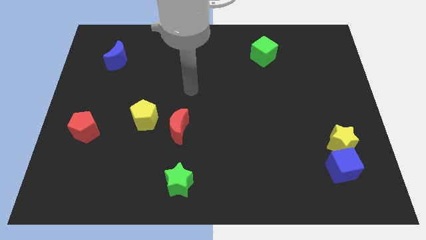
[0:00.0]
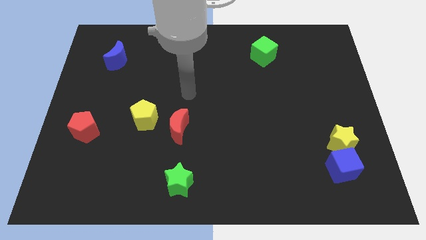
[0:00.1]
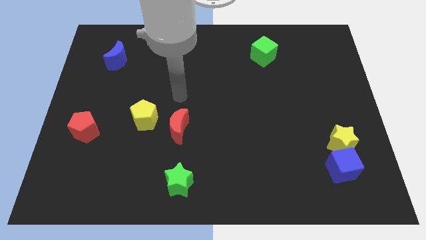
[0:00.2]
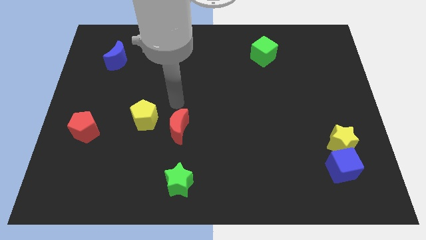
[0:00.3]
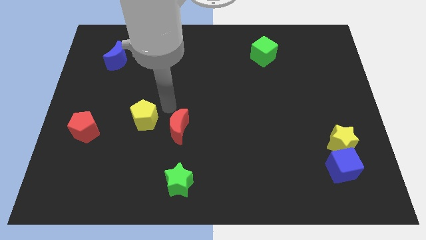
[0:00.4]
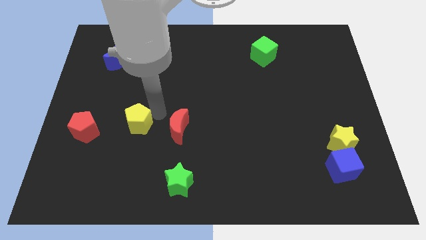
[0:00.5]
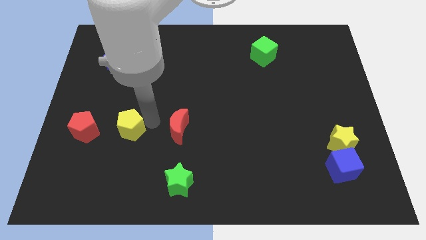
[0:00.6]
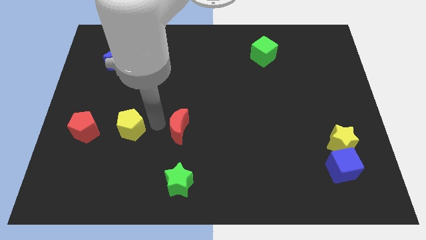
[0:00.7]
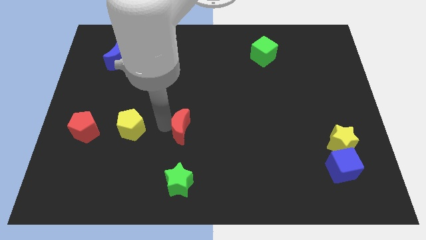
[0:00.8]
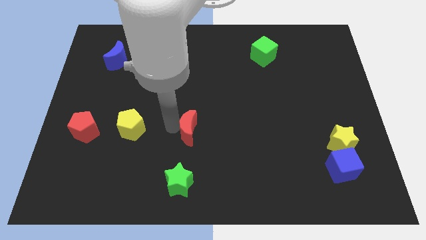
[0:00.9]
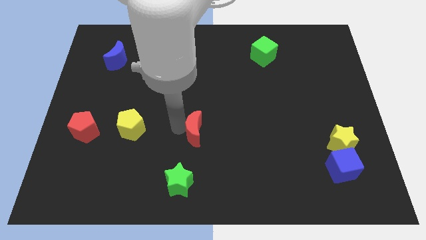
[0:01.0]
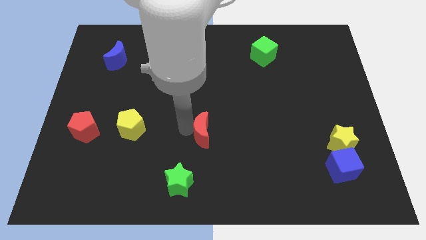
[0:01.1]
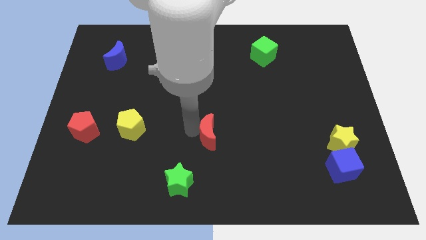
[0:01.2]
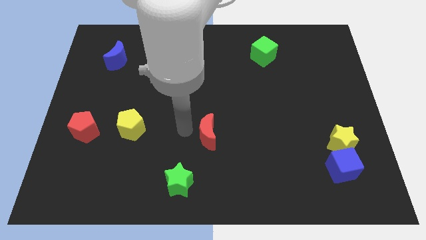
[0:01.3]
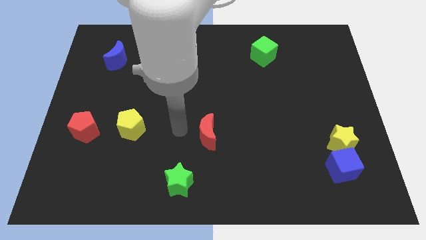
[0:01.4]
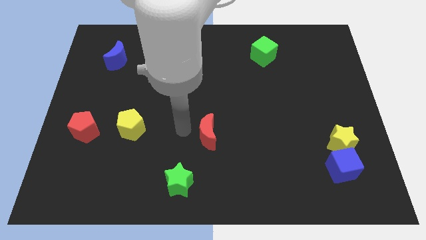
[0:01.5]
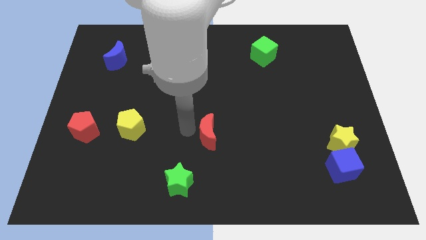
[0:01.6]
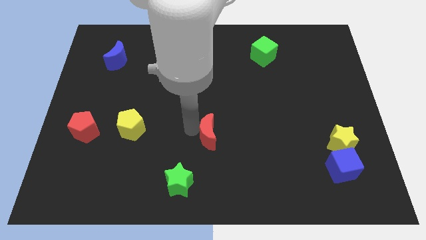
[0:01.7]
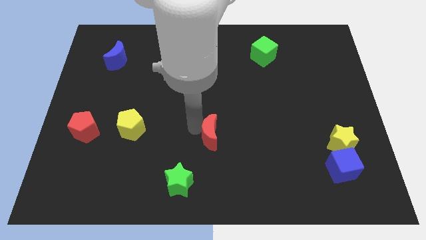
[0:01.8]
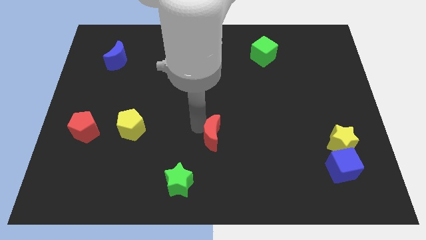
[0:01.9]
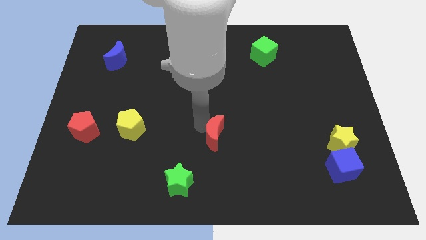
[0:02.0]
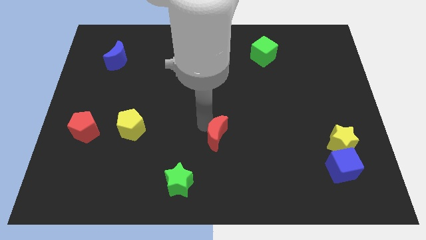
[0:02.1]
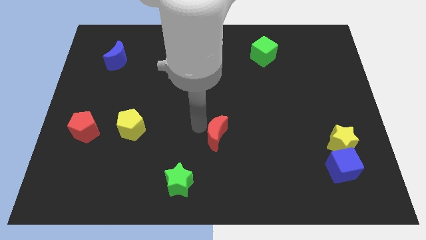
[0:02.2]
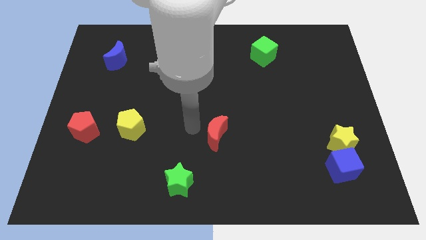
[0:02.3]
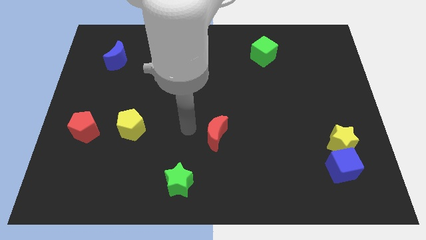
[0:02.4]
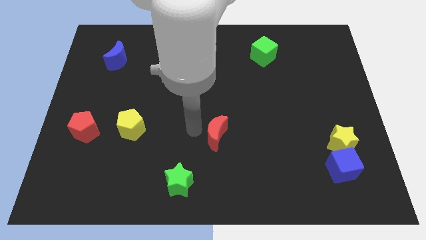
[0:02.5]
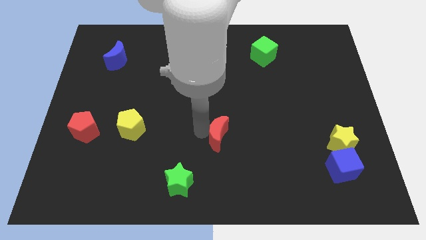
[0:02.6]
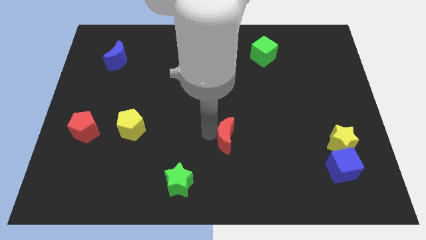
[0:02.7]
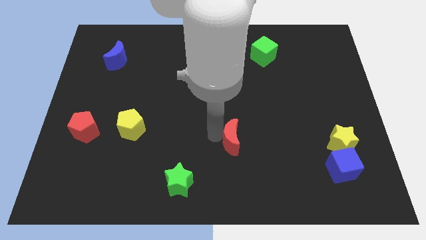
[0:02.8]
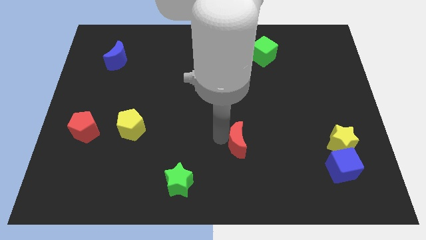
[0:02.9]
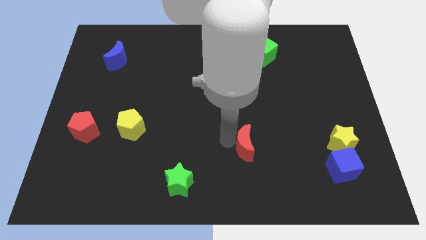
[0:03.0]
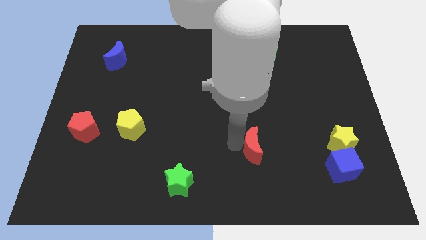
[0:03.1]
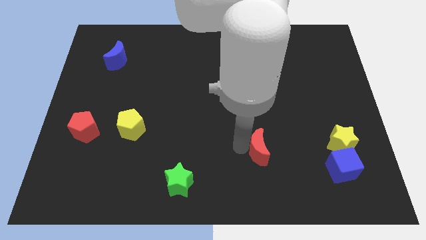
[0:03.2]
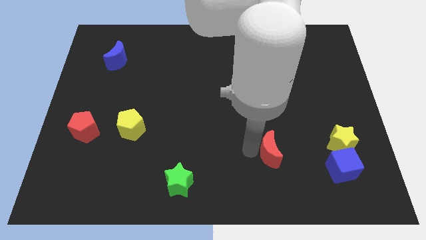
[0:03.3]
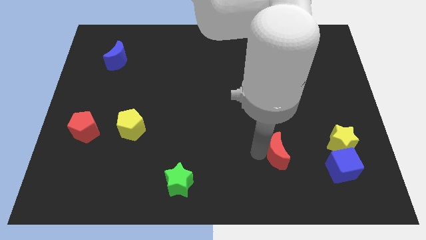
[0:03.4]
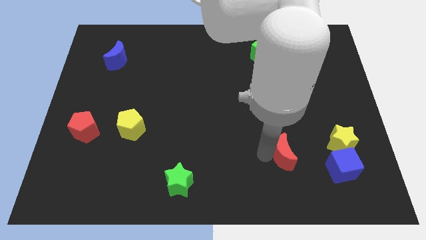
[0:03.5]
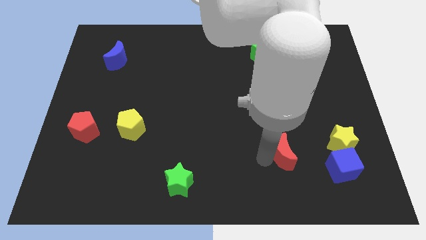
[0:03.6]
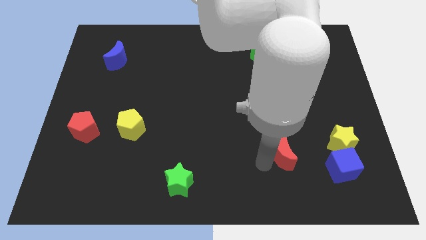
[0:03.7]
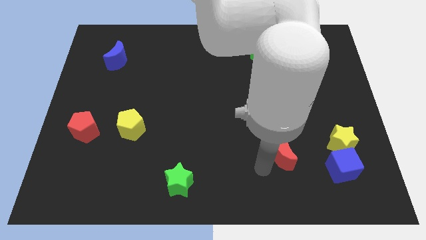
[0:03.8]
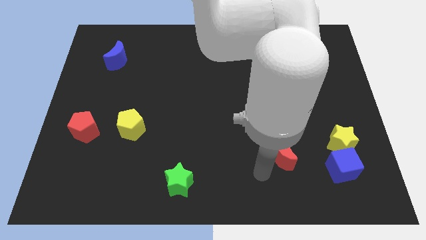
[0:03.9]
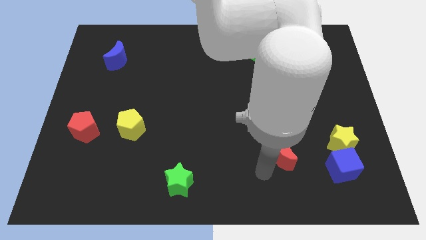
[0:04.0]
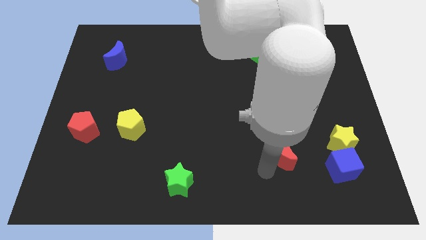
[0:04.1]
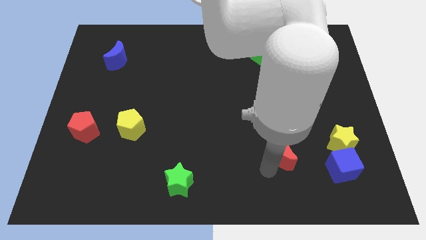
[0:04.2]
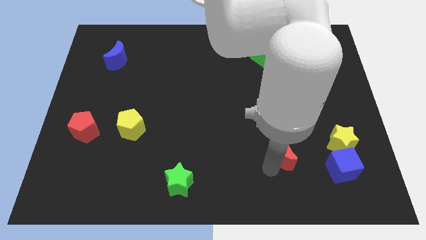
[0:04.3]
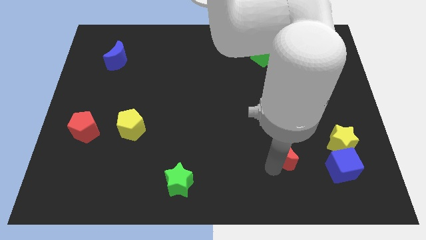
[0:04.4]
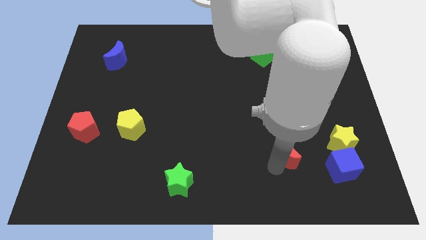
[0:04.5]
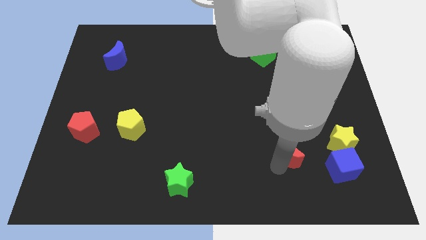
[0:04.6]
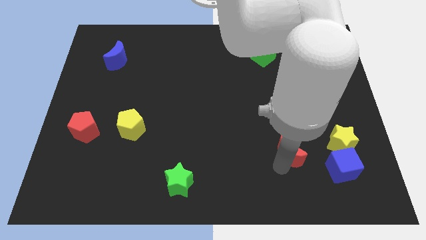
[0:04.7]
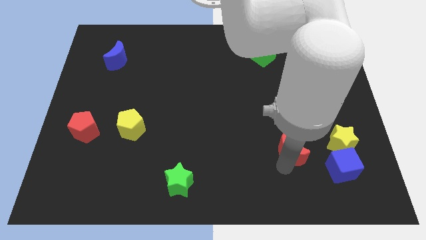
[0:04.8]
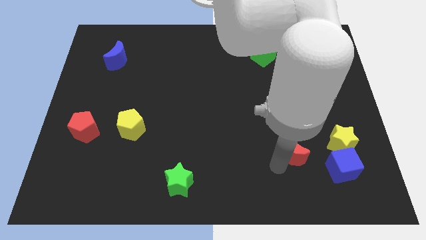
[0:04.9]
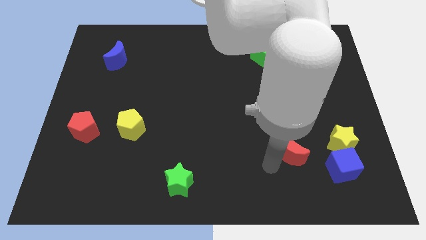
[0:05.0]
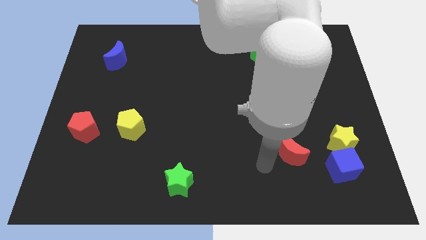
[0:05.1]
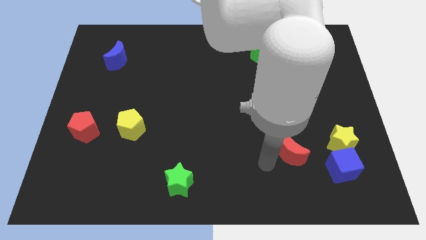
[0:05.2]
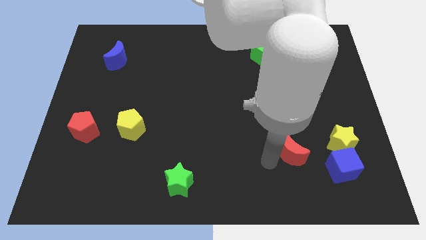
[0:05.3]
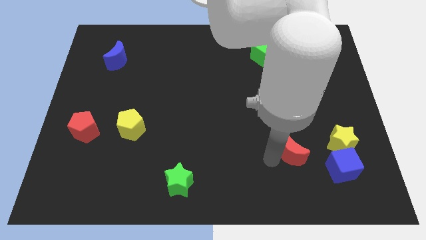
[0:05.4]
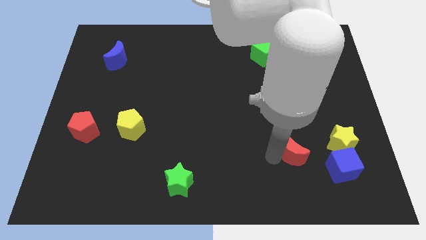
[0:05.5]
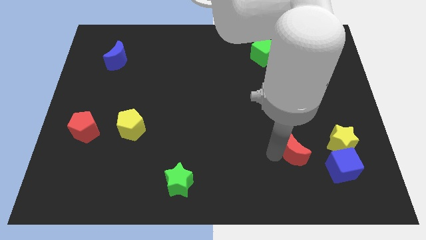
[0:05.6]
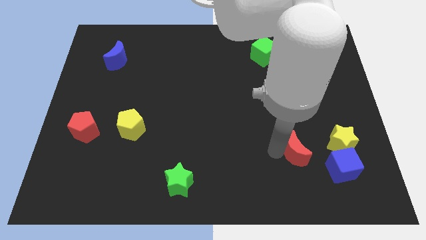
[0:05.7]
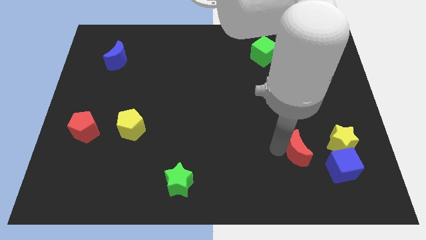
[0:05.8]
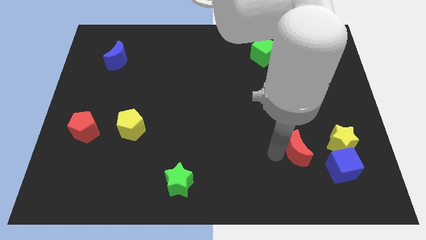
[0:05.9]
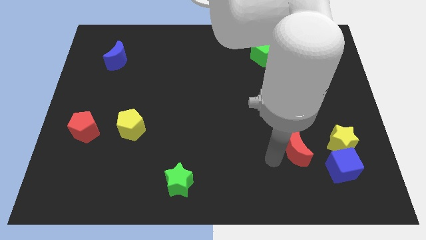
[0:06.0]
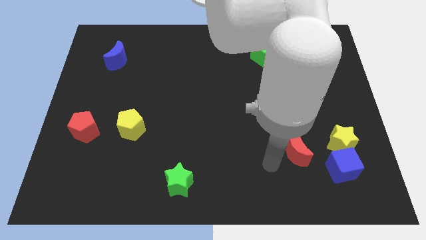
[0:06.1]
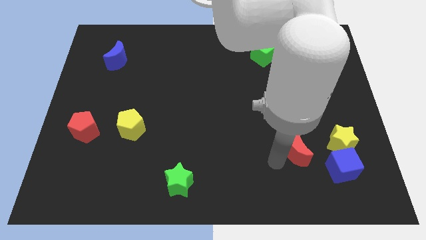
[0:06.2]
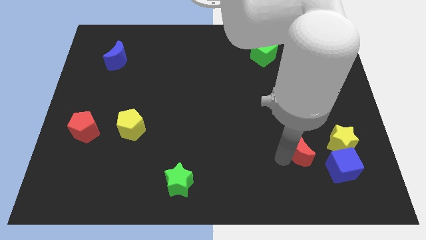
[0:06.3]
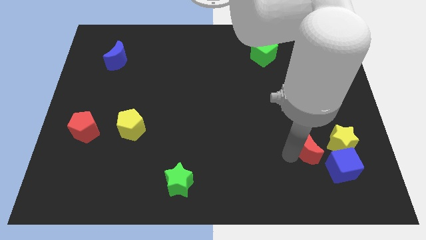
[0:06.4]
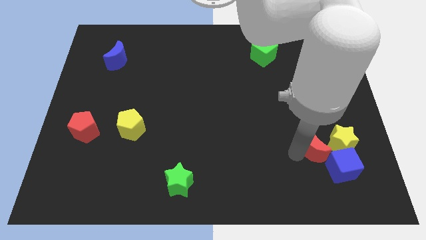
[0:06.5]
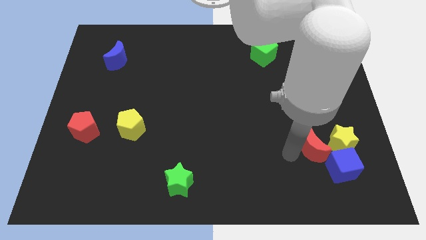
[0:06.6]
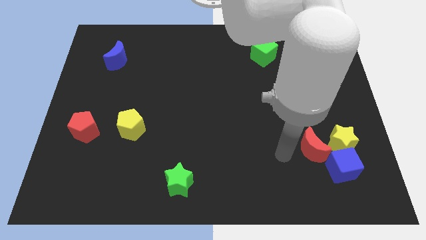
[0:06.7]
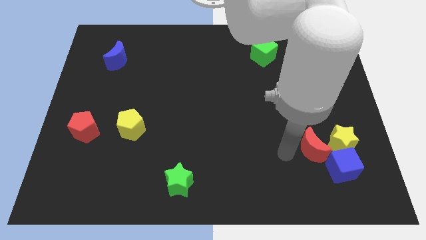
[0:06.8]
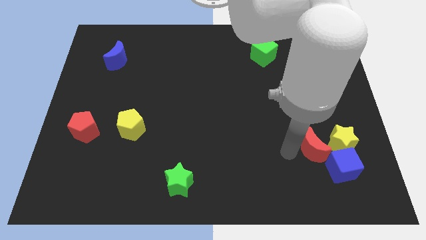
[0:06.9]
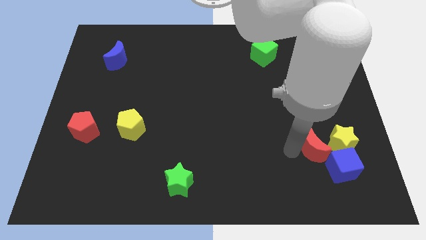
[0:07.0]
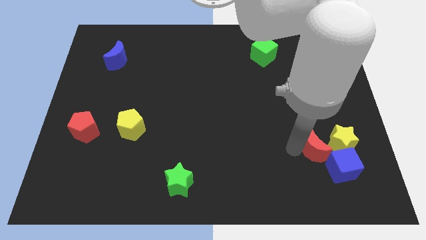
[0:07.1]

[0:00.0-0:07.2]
push the red moon towards the yellow star
